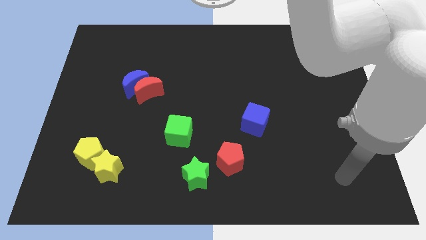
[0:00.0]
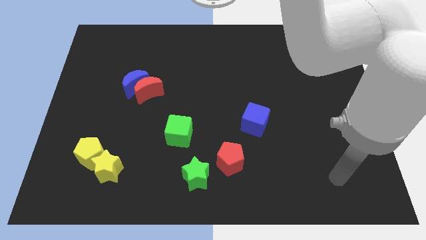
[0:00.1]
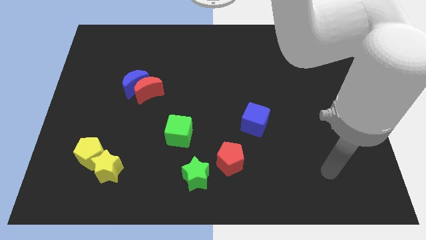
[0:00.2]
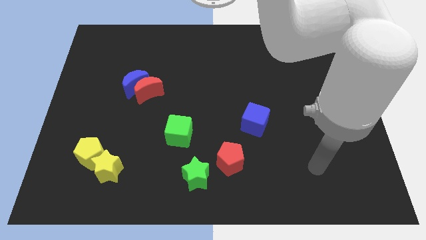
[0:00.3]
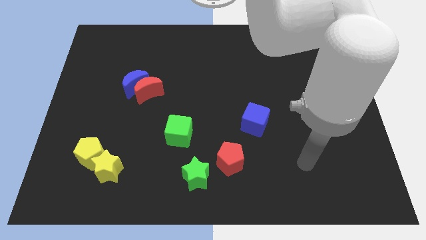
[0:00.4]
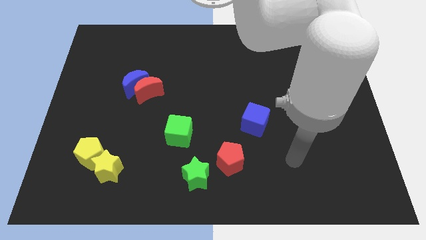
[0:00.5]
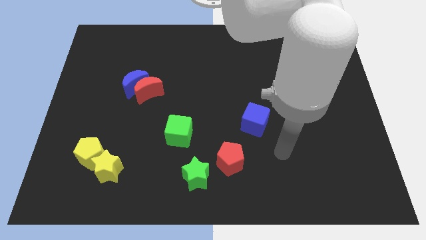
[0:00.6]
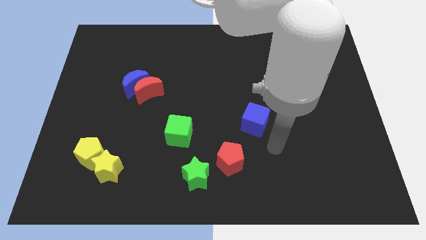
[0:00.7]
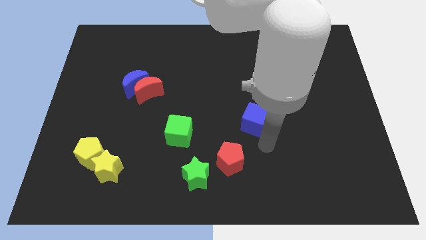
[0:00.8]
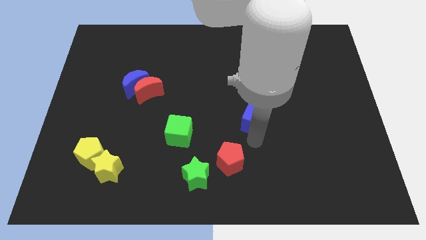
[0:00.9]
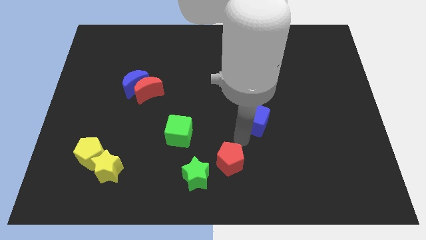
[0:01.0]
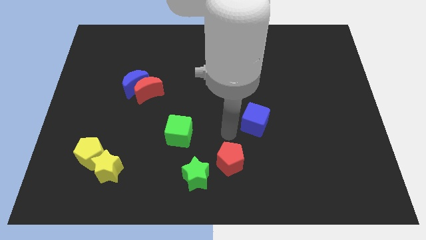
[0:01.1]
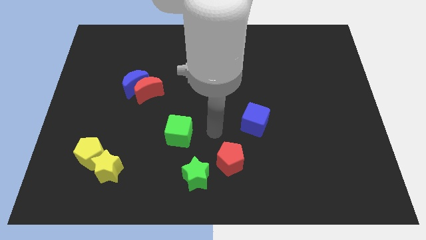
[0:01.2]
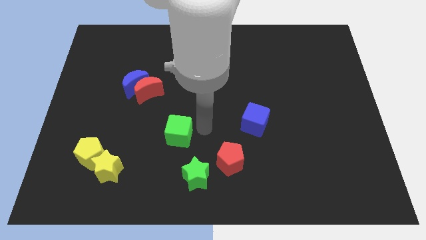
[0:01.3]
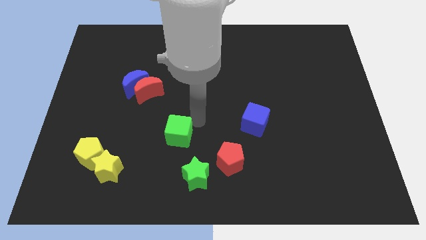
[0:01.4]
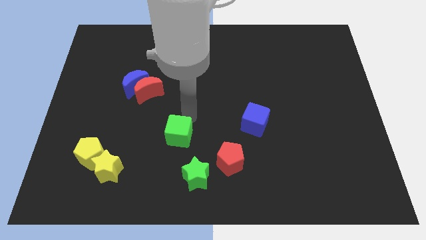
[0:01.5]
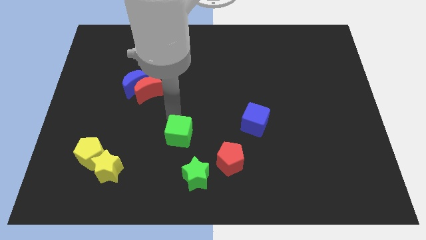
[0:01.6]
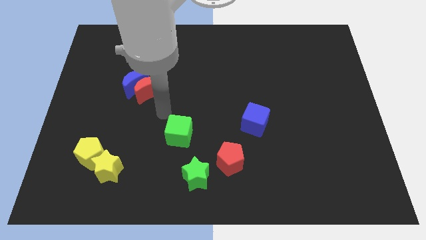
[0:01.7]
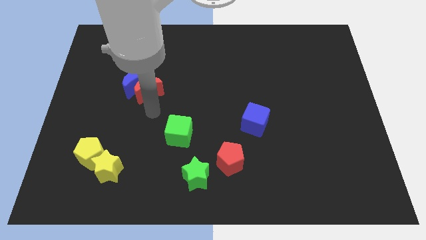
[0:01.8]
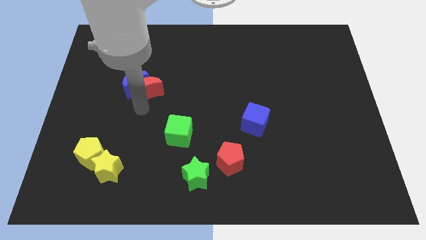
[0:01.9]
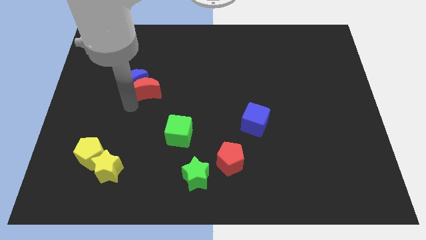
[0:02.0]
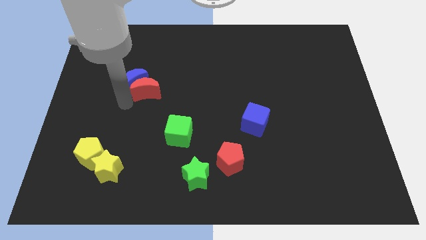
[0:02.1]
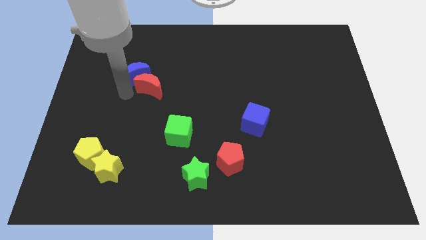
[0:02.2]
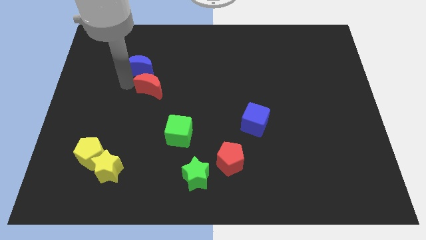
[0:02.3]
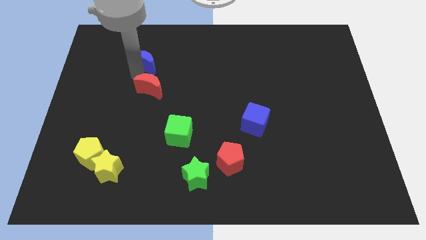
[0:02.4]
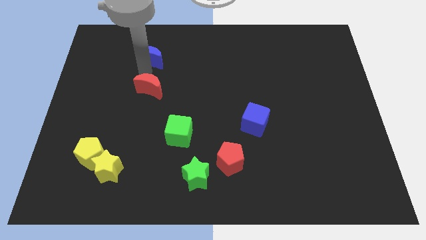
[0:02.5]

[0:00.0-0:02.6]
separate the red moon from the blue moon

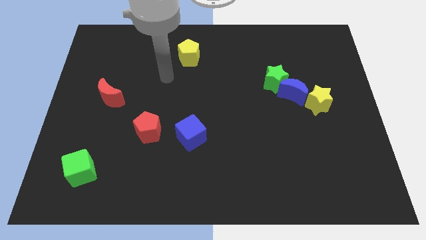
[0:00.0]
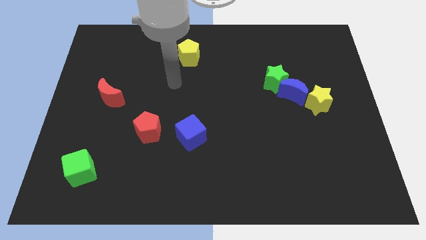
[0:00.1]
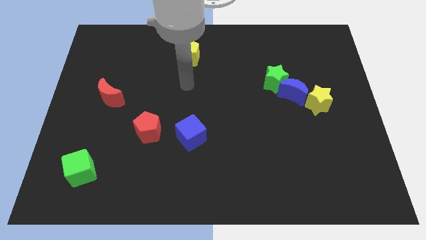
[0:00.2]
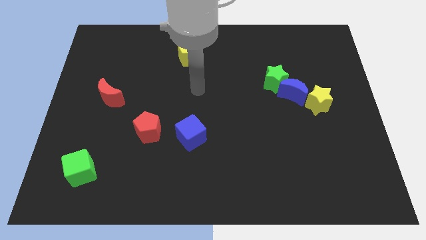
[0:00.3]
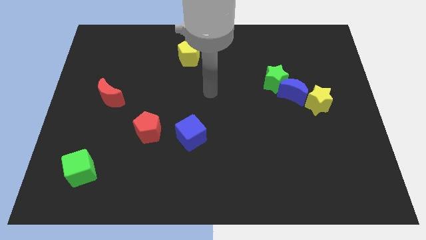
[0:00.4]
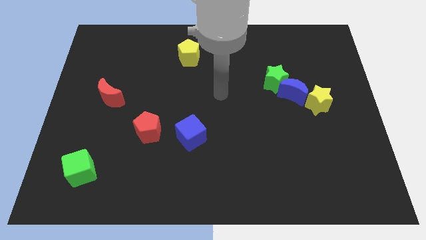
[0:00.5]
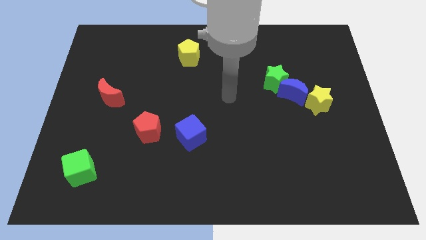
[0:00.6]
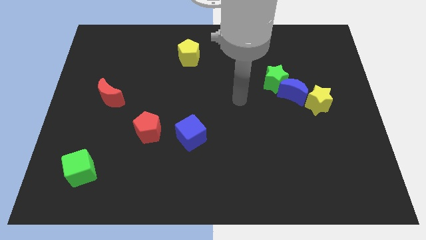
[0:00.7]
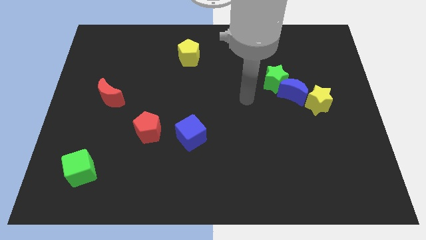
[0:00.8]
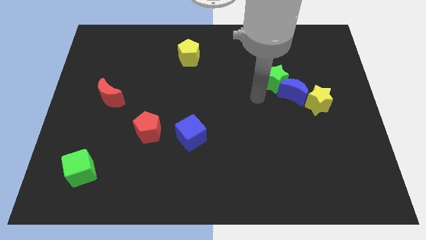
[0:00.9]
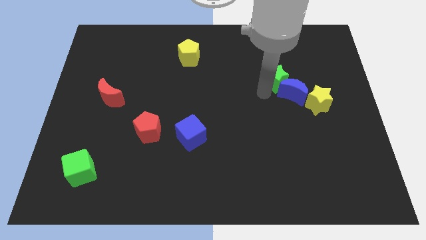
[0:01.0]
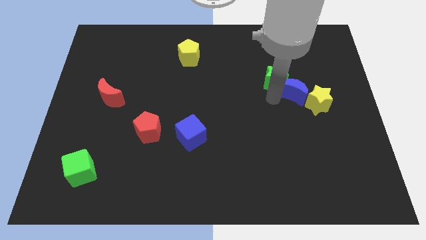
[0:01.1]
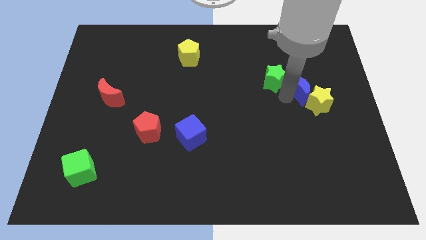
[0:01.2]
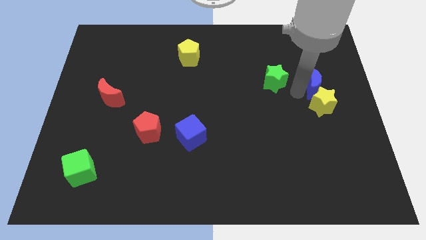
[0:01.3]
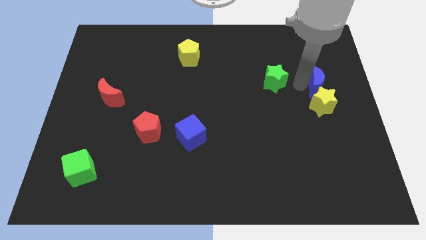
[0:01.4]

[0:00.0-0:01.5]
pull the green star apart from the blue moon

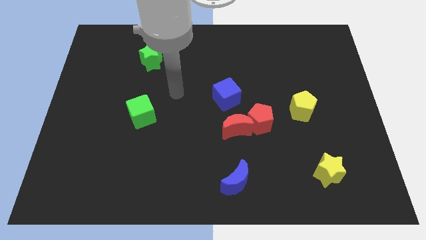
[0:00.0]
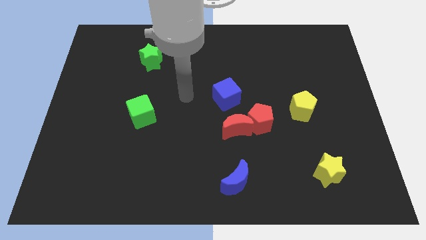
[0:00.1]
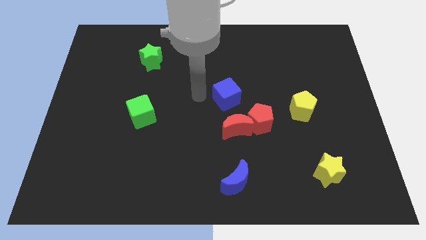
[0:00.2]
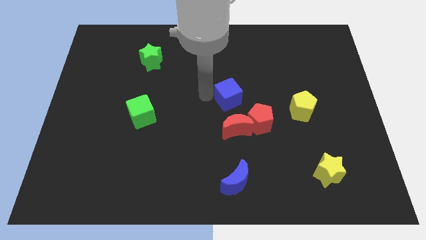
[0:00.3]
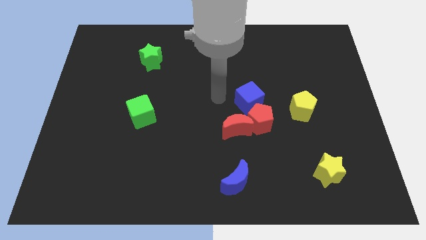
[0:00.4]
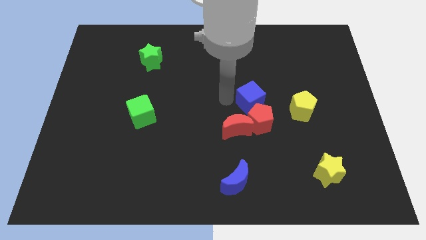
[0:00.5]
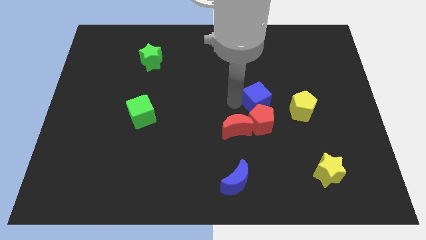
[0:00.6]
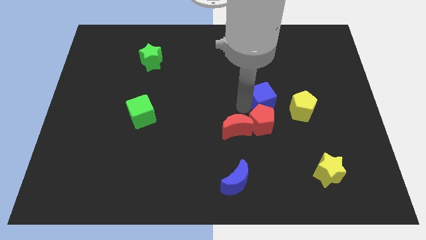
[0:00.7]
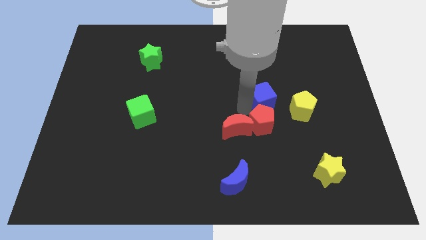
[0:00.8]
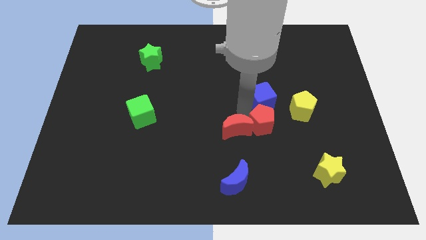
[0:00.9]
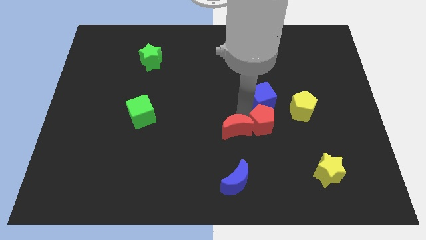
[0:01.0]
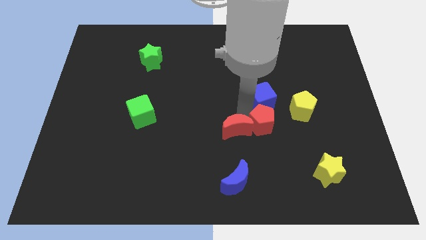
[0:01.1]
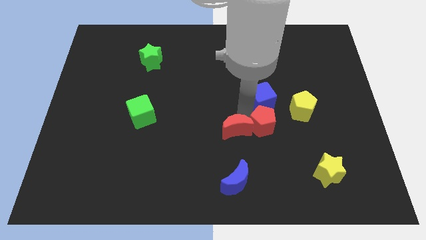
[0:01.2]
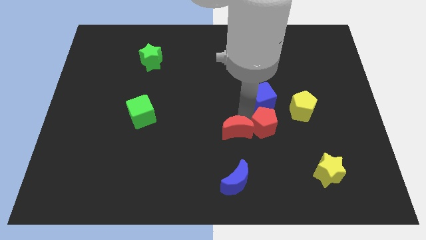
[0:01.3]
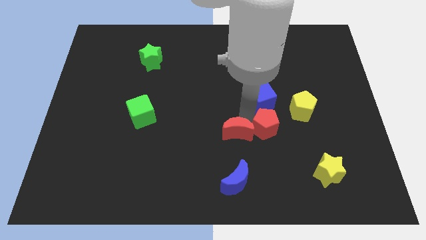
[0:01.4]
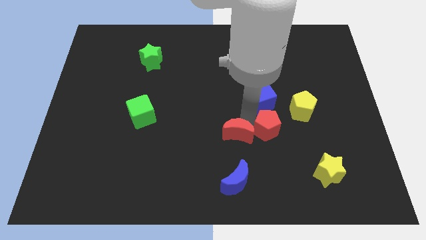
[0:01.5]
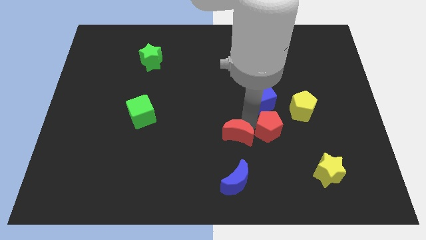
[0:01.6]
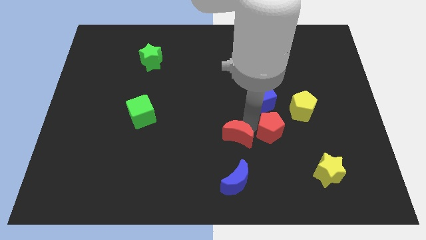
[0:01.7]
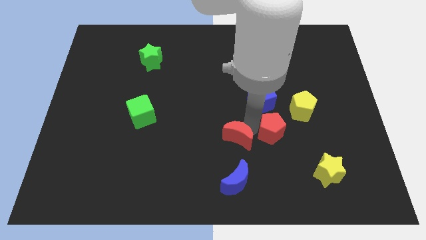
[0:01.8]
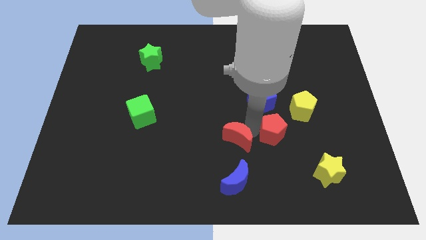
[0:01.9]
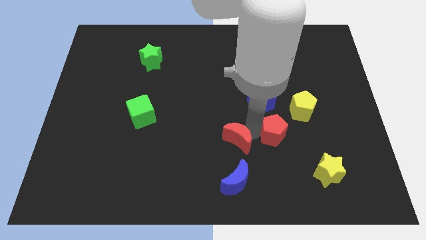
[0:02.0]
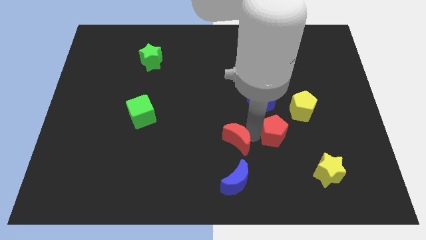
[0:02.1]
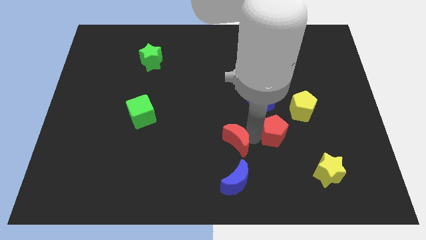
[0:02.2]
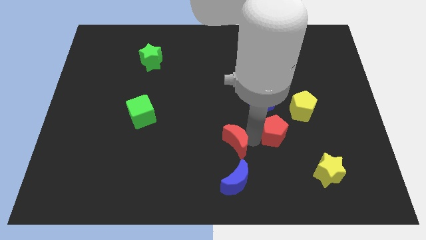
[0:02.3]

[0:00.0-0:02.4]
pull the red moon apart from the red pentagon and blue cube

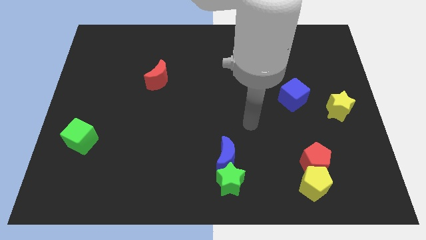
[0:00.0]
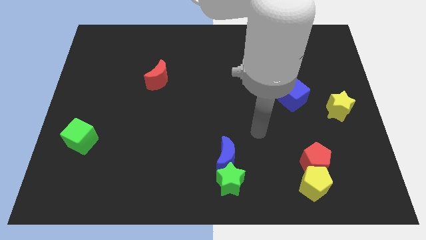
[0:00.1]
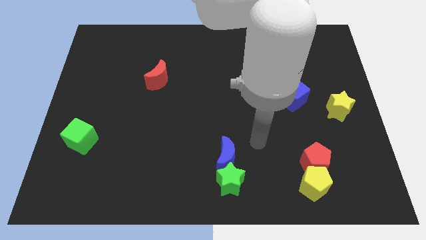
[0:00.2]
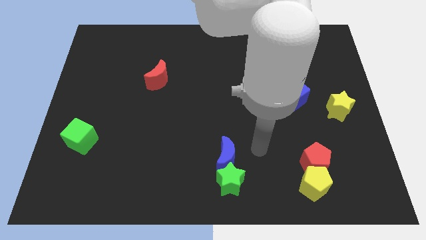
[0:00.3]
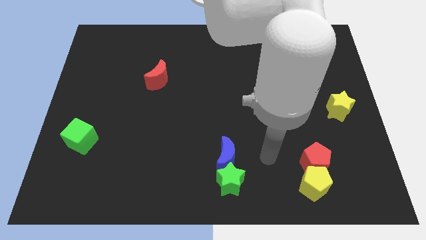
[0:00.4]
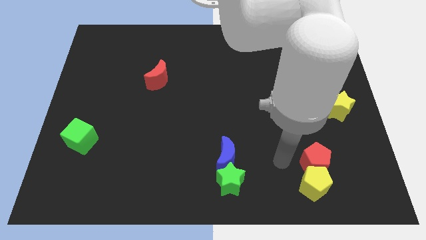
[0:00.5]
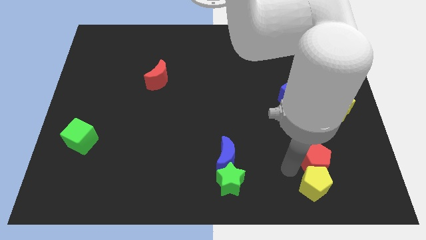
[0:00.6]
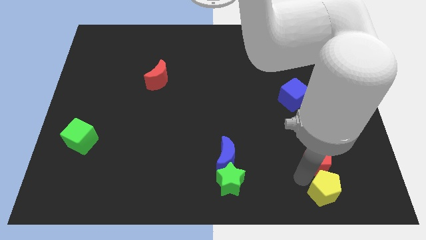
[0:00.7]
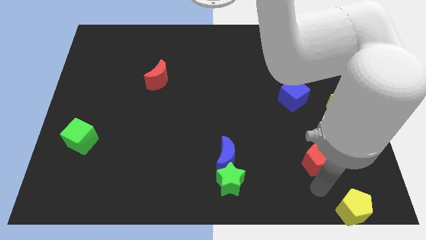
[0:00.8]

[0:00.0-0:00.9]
pull the red pentagon apart from the yellow pentagon

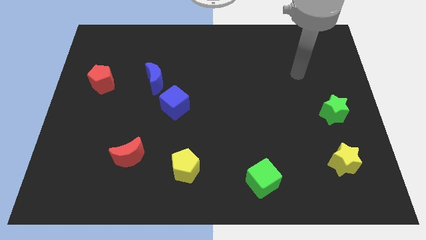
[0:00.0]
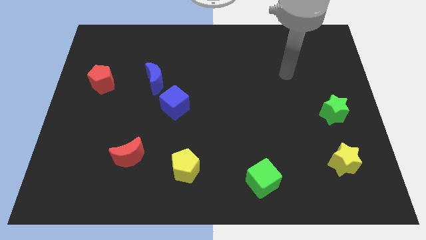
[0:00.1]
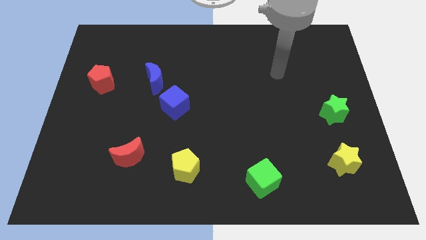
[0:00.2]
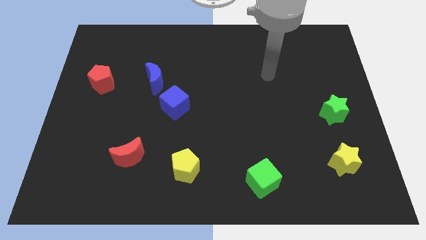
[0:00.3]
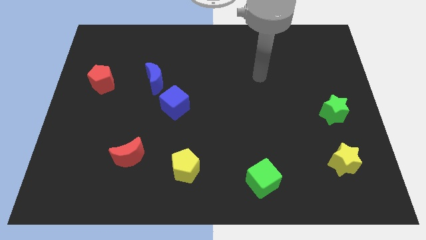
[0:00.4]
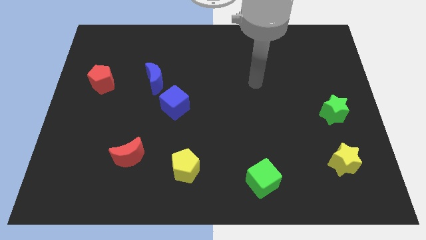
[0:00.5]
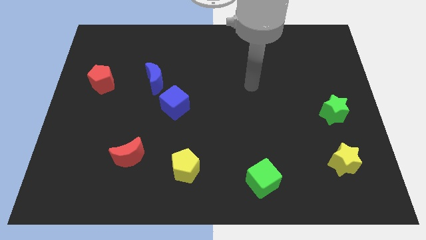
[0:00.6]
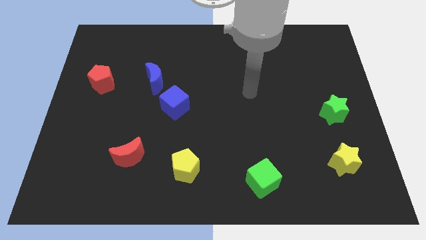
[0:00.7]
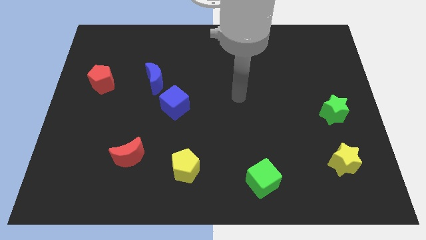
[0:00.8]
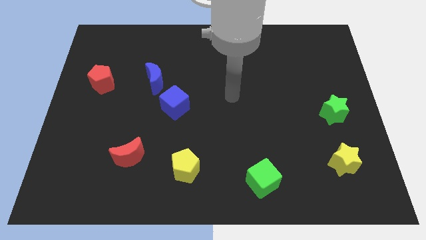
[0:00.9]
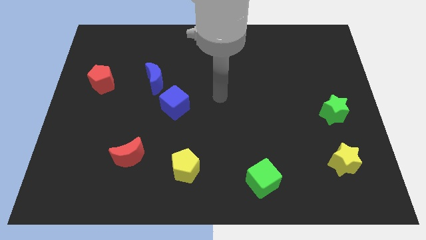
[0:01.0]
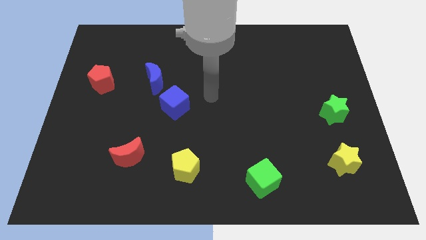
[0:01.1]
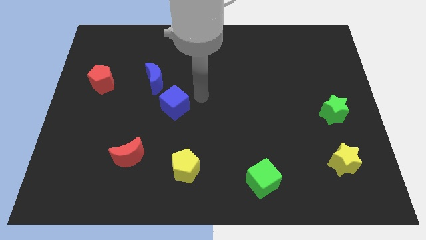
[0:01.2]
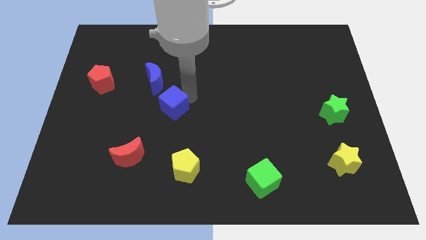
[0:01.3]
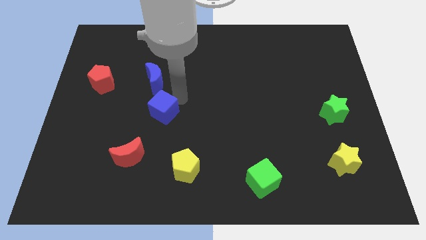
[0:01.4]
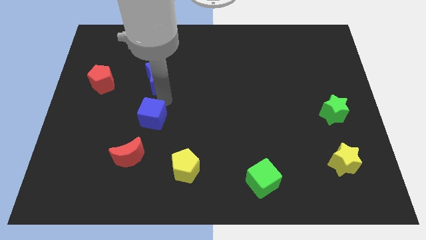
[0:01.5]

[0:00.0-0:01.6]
move the blue moon away from the blue cube

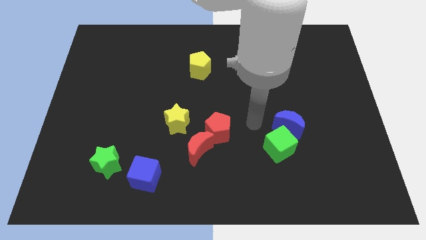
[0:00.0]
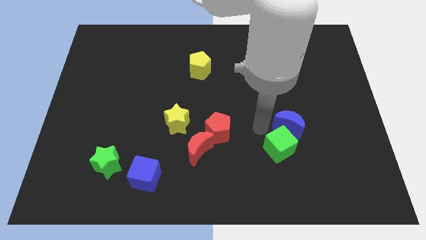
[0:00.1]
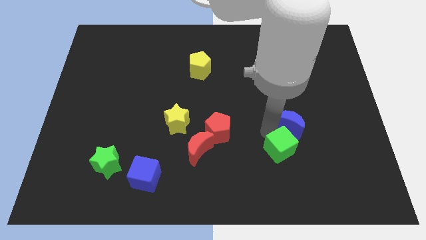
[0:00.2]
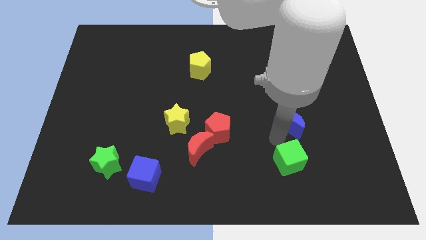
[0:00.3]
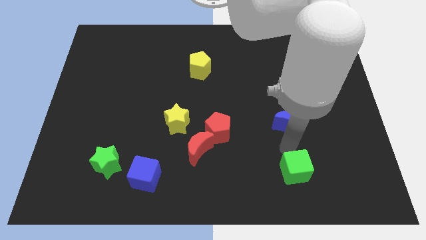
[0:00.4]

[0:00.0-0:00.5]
pull the blue moon apart from the green cube
